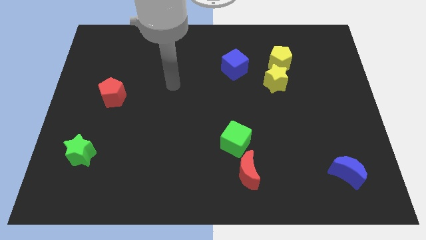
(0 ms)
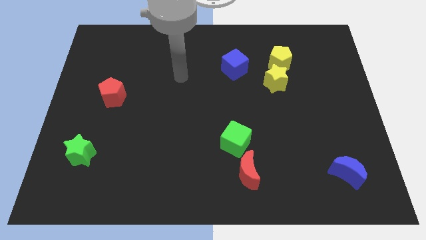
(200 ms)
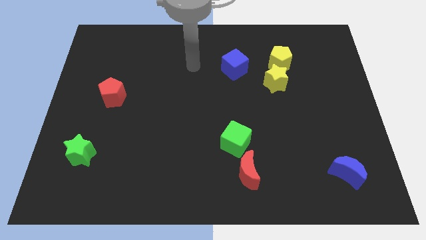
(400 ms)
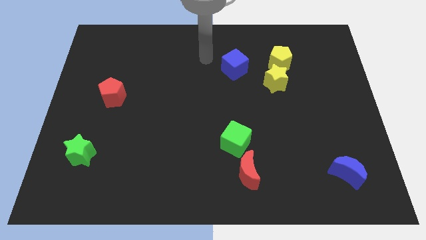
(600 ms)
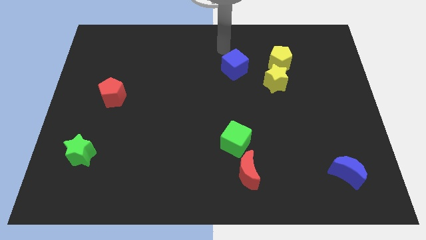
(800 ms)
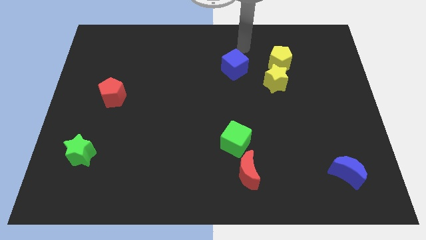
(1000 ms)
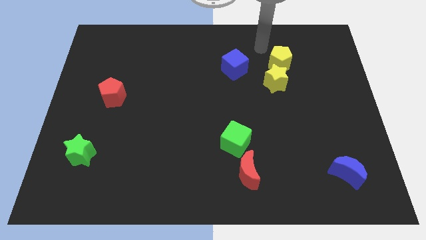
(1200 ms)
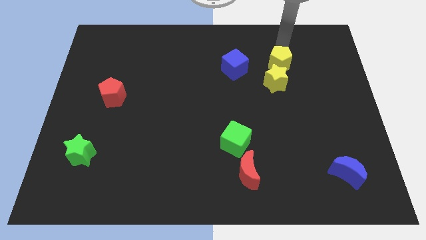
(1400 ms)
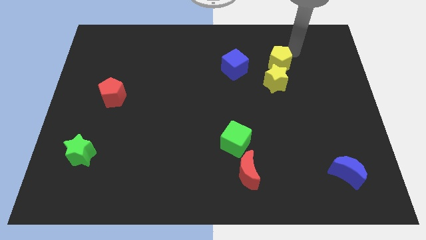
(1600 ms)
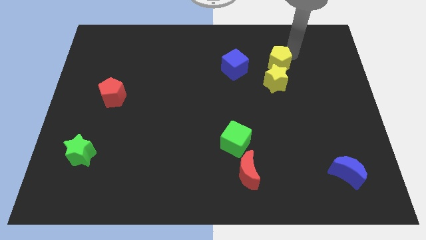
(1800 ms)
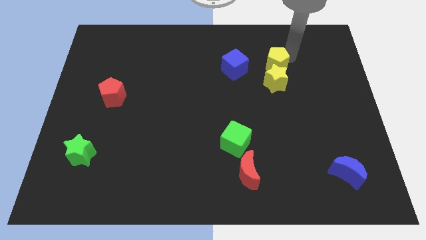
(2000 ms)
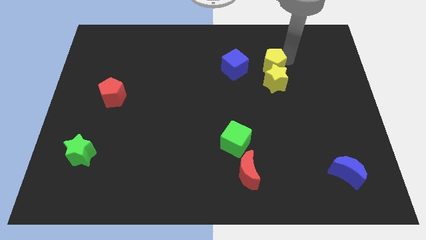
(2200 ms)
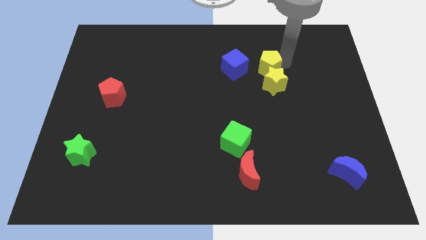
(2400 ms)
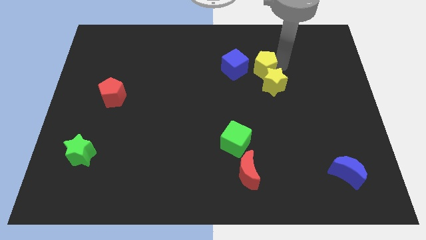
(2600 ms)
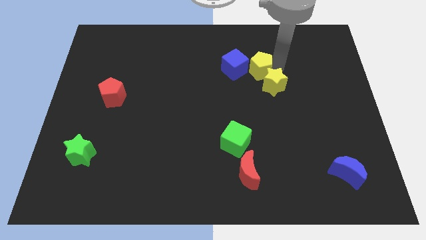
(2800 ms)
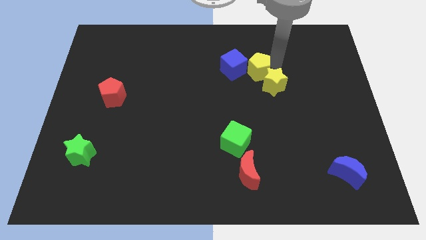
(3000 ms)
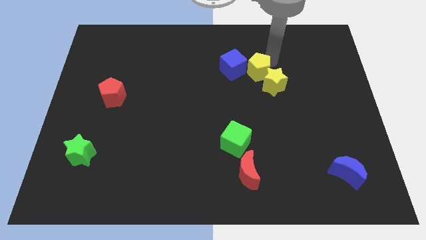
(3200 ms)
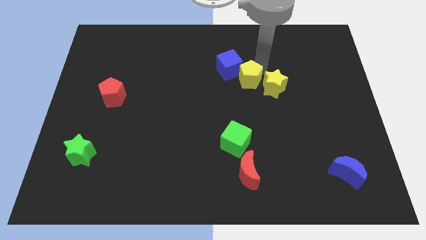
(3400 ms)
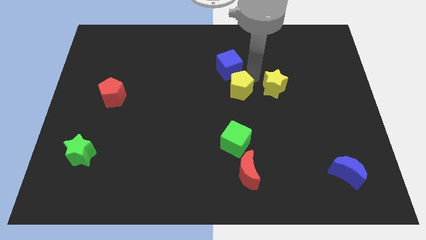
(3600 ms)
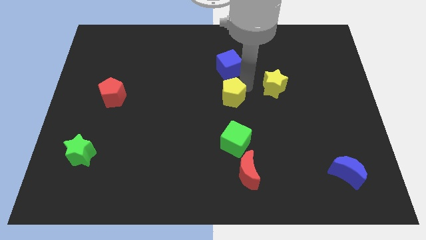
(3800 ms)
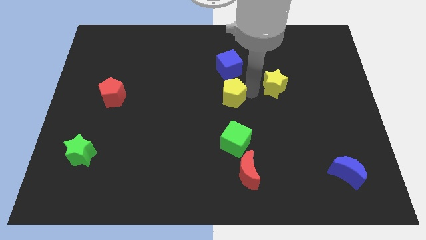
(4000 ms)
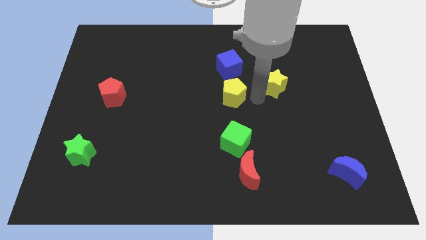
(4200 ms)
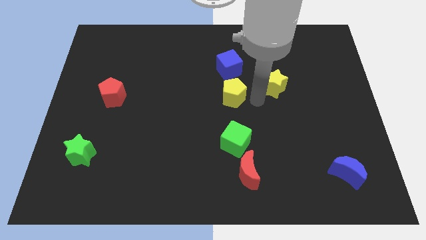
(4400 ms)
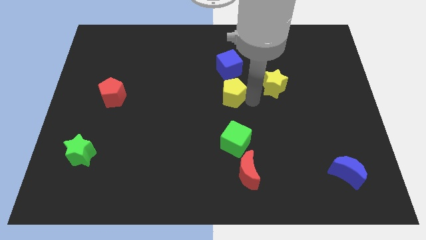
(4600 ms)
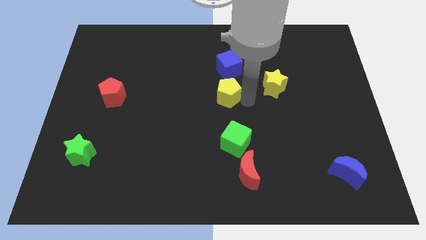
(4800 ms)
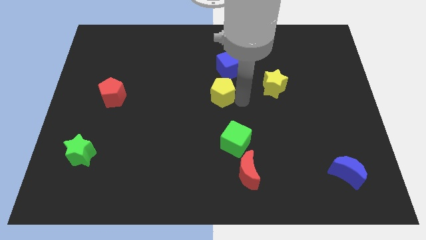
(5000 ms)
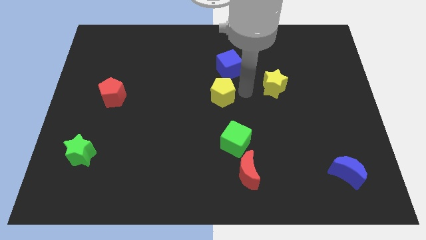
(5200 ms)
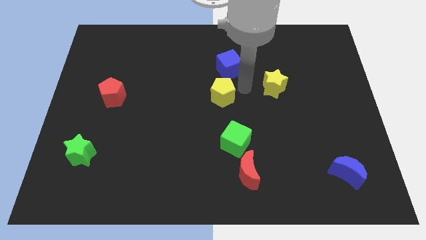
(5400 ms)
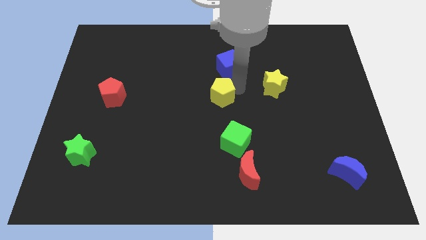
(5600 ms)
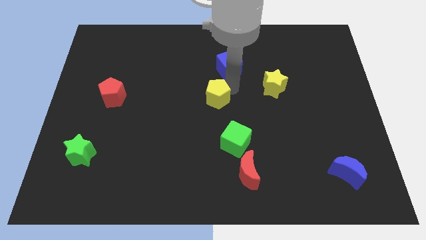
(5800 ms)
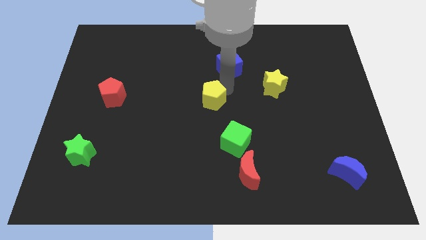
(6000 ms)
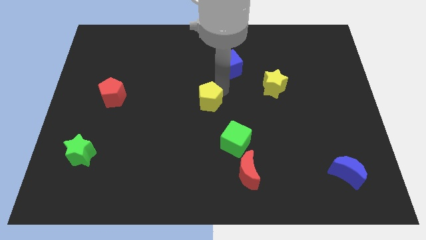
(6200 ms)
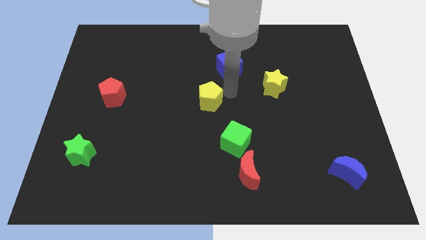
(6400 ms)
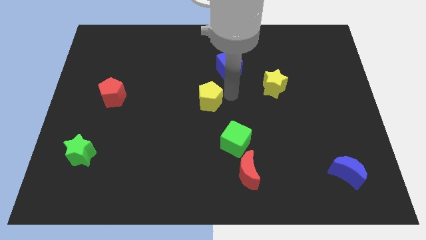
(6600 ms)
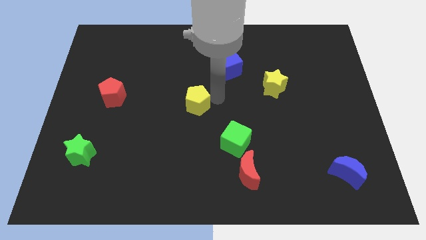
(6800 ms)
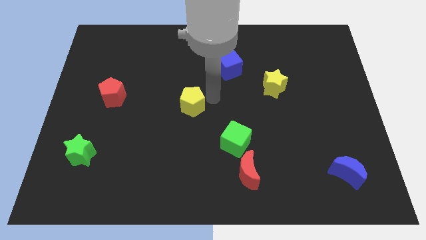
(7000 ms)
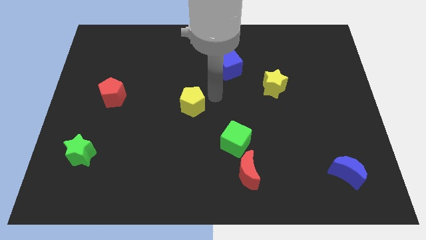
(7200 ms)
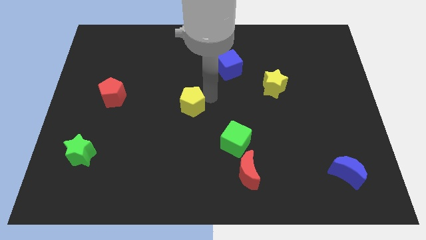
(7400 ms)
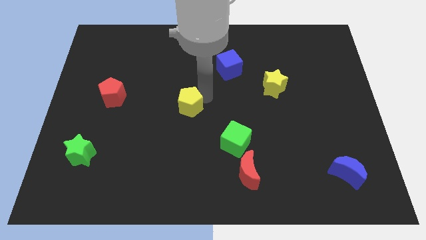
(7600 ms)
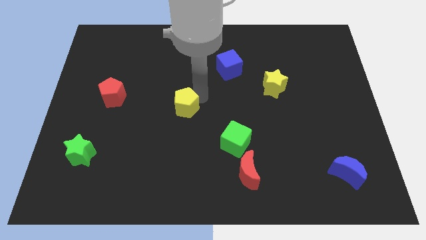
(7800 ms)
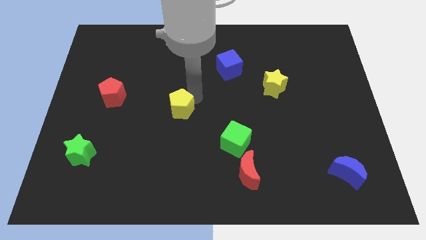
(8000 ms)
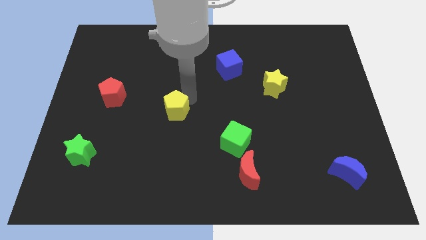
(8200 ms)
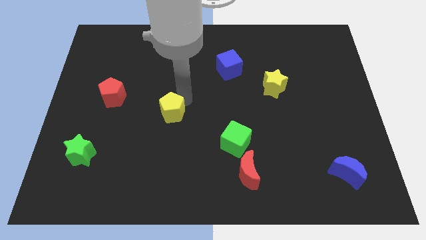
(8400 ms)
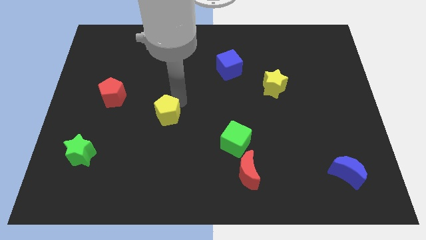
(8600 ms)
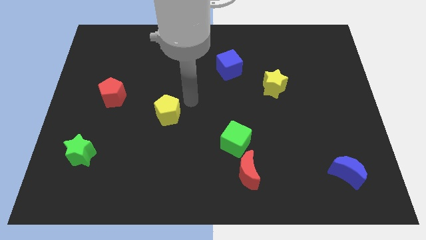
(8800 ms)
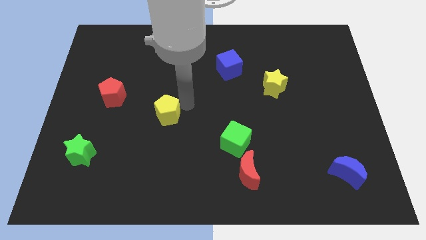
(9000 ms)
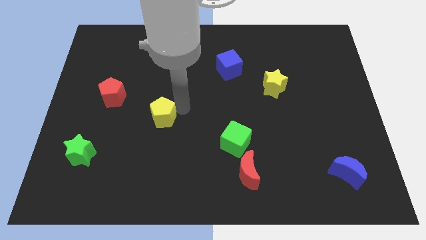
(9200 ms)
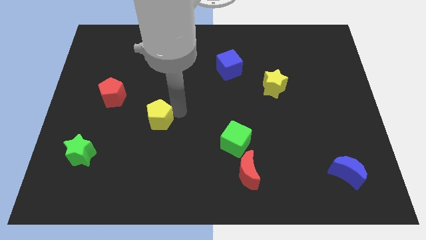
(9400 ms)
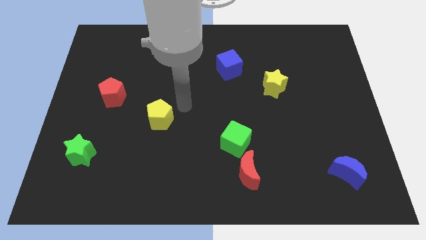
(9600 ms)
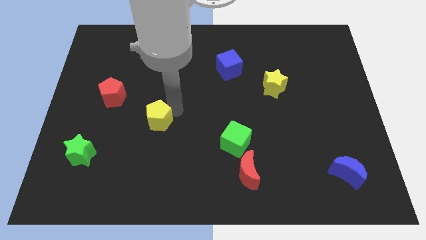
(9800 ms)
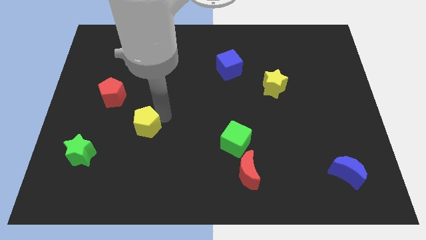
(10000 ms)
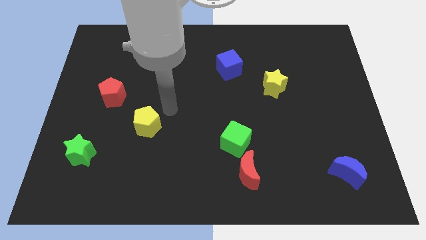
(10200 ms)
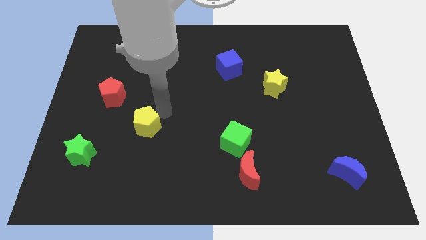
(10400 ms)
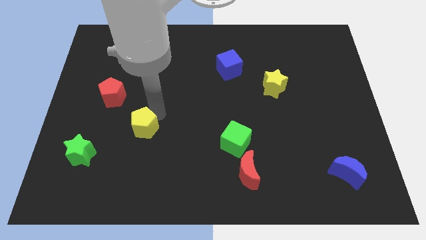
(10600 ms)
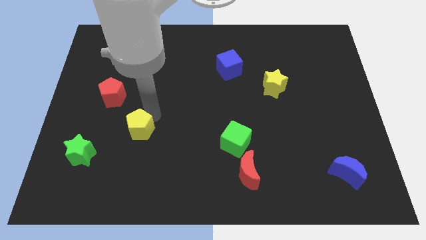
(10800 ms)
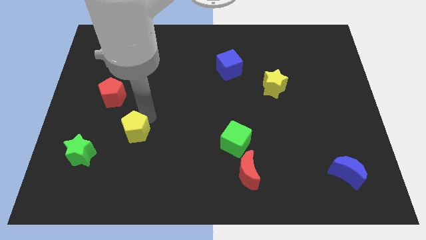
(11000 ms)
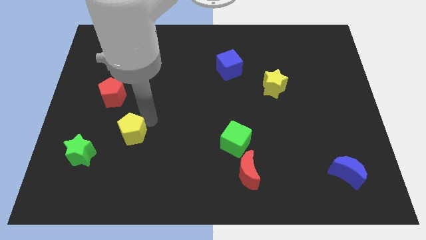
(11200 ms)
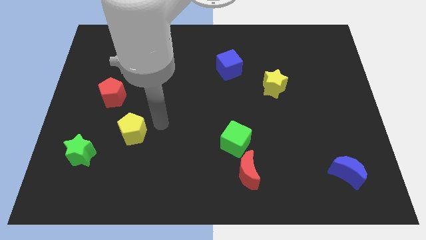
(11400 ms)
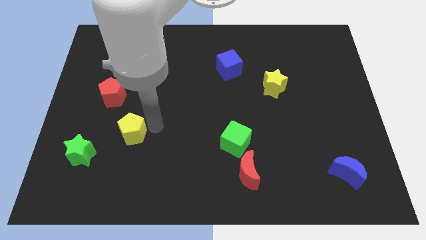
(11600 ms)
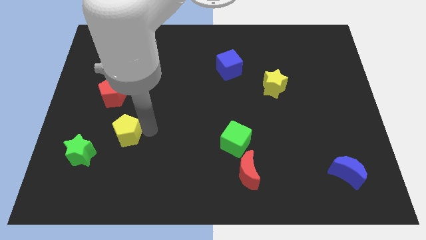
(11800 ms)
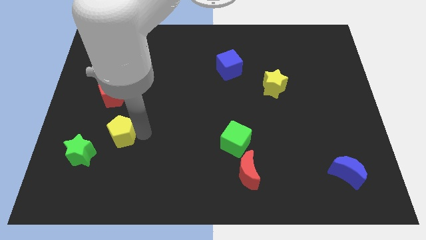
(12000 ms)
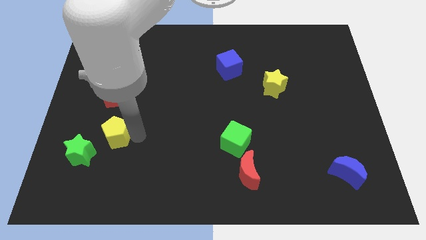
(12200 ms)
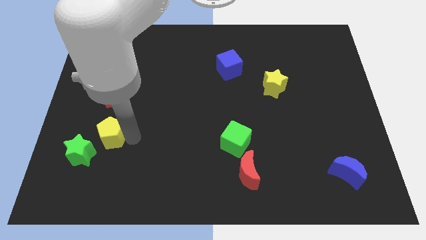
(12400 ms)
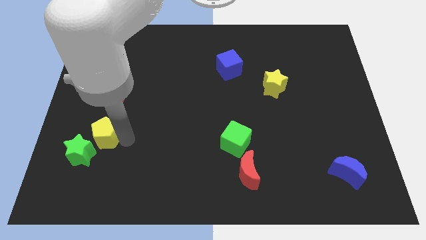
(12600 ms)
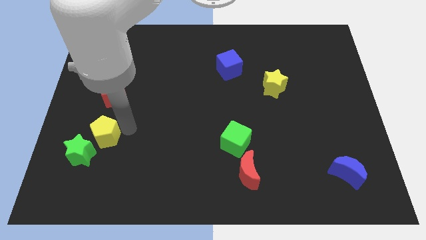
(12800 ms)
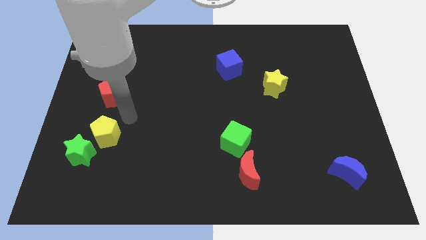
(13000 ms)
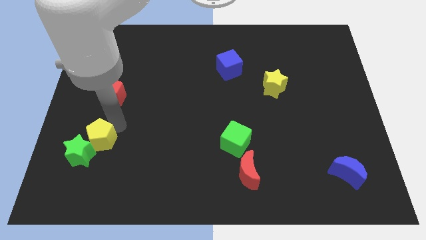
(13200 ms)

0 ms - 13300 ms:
push the yellow pentagon next to the green star
